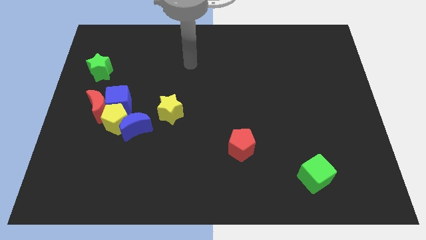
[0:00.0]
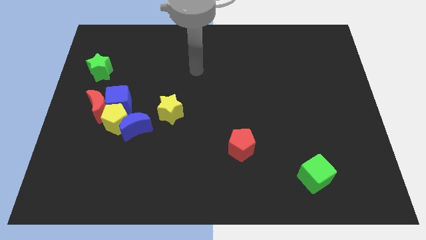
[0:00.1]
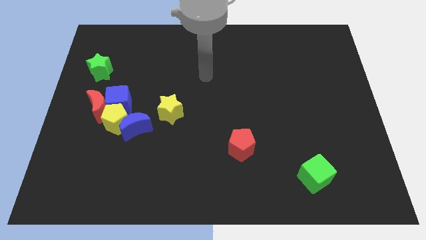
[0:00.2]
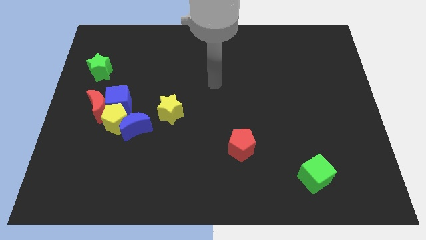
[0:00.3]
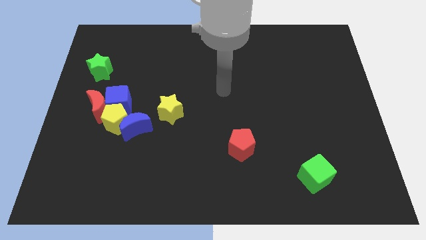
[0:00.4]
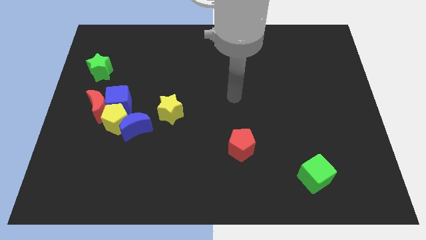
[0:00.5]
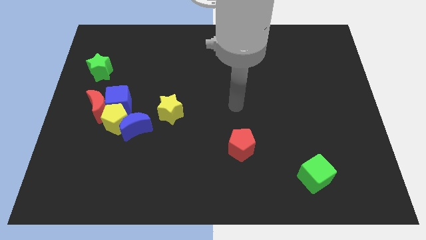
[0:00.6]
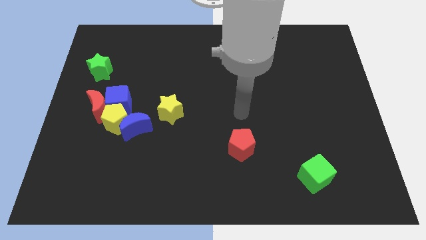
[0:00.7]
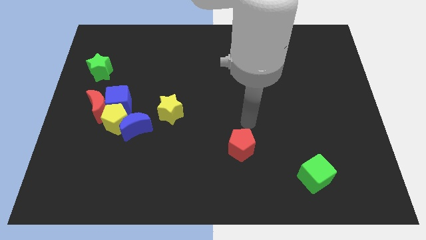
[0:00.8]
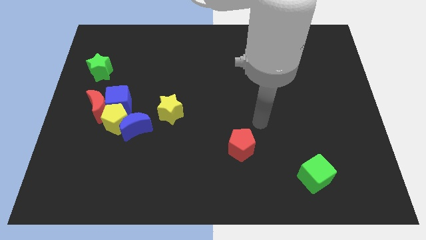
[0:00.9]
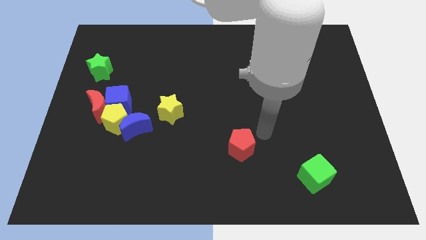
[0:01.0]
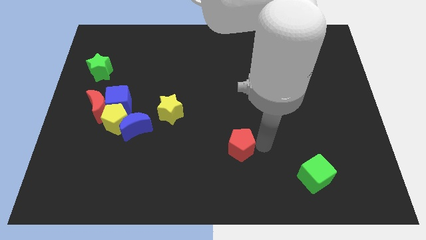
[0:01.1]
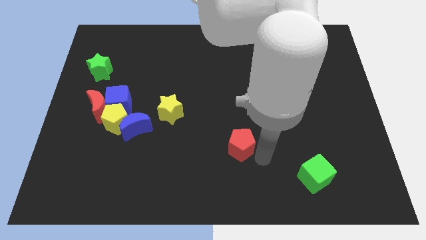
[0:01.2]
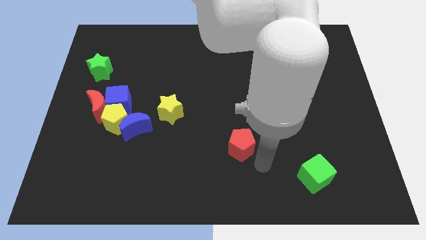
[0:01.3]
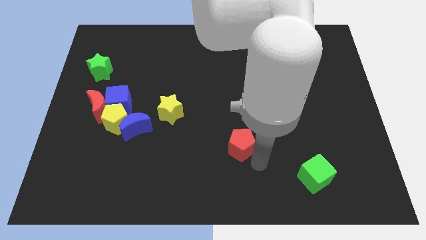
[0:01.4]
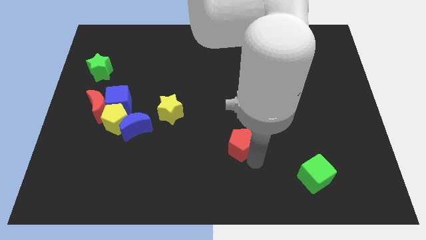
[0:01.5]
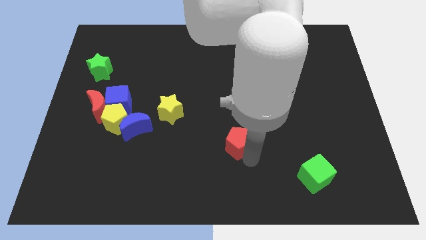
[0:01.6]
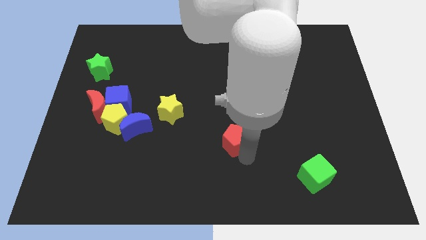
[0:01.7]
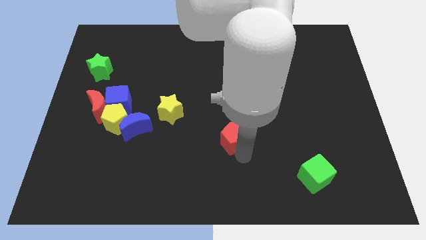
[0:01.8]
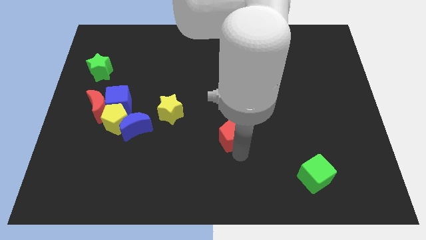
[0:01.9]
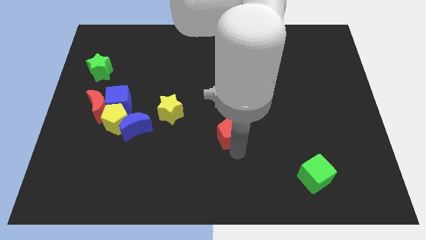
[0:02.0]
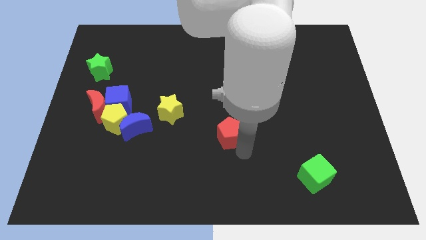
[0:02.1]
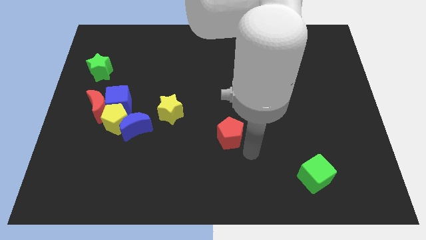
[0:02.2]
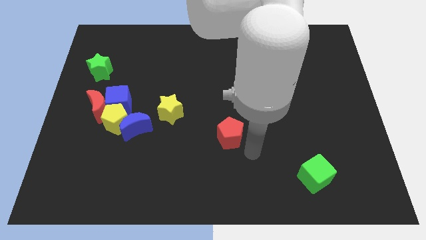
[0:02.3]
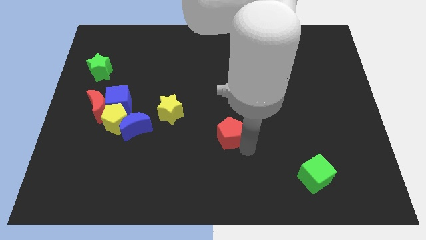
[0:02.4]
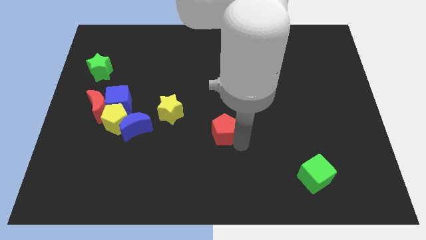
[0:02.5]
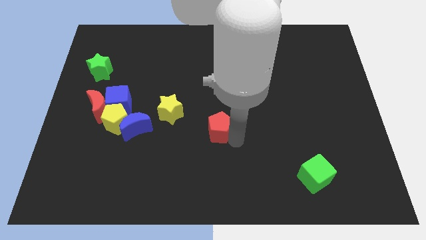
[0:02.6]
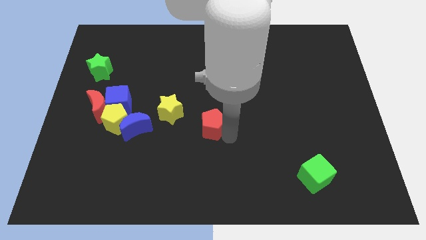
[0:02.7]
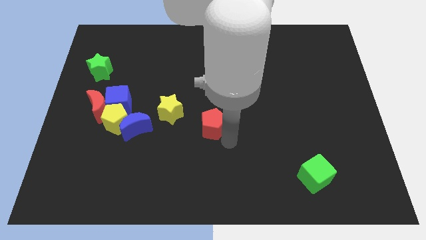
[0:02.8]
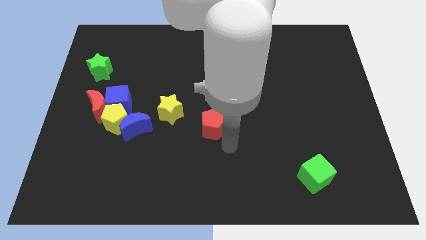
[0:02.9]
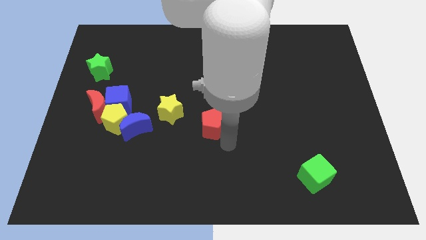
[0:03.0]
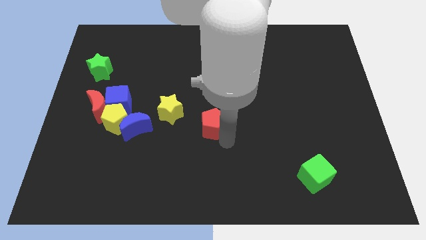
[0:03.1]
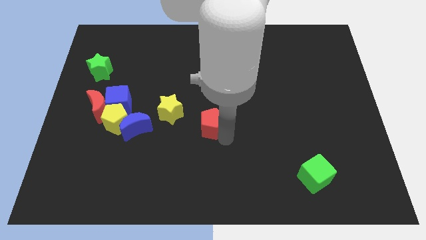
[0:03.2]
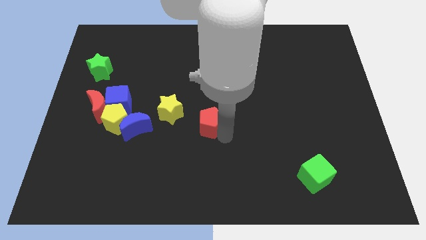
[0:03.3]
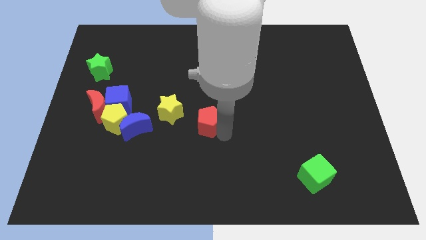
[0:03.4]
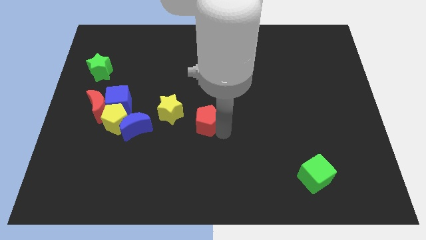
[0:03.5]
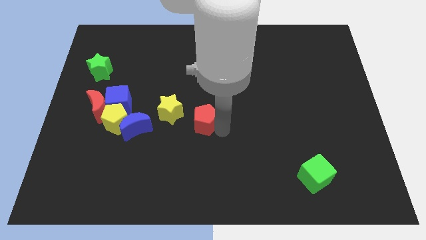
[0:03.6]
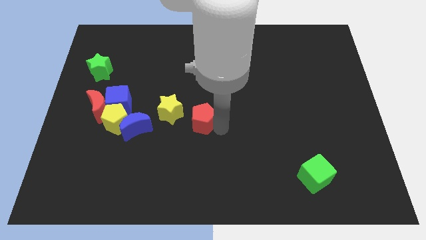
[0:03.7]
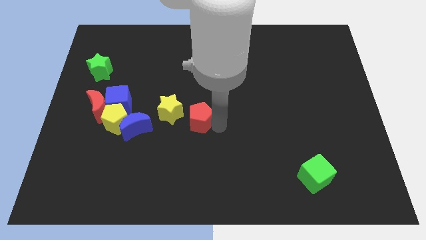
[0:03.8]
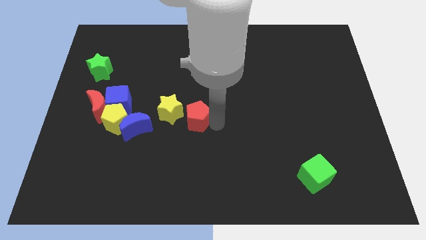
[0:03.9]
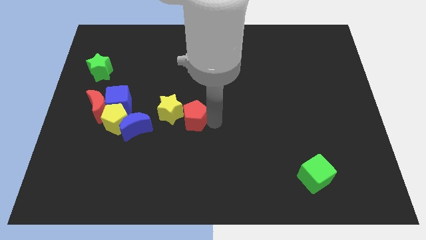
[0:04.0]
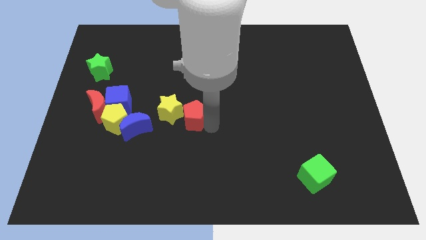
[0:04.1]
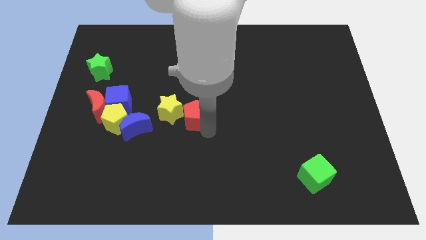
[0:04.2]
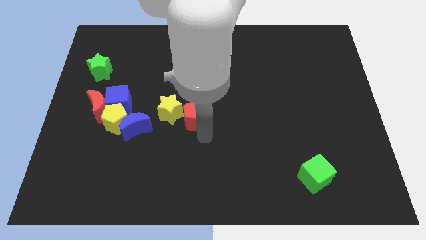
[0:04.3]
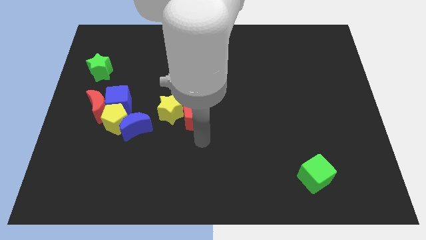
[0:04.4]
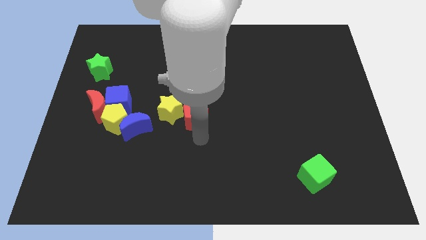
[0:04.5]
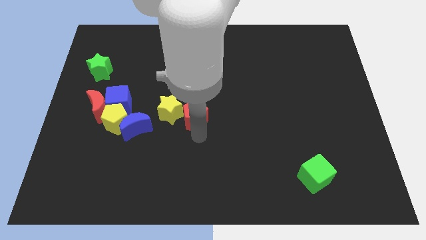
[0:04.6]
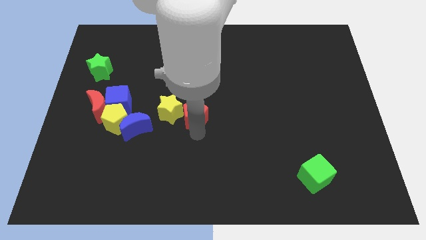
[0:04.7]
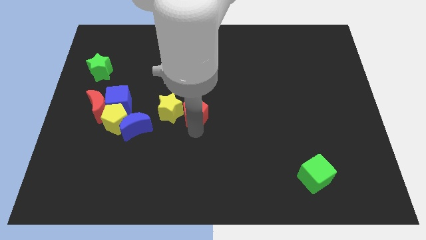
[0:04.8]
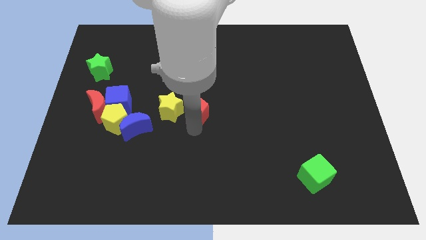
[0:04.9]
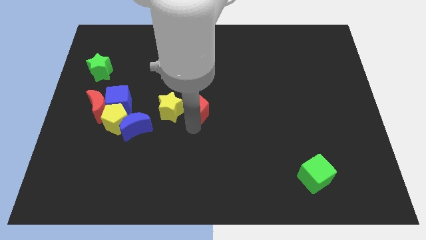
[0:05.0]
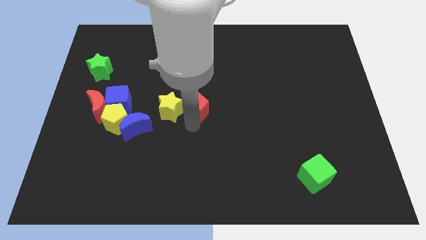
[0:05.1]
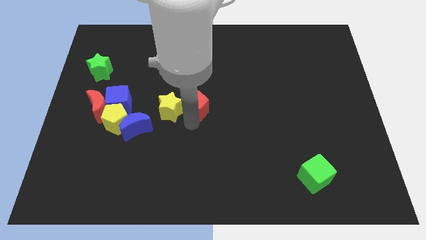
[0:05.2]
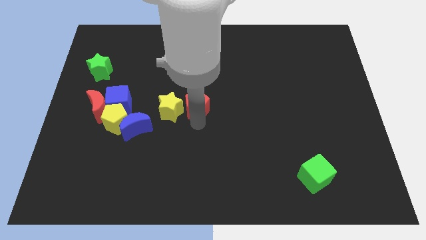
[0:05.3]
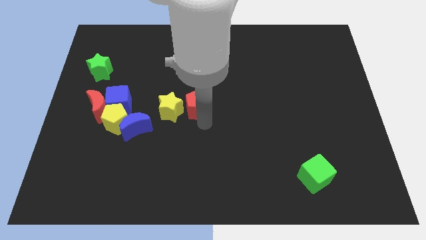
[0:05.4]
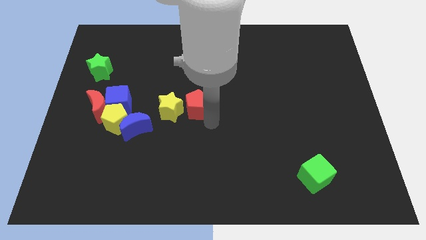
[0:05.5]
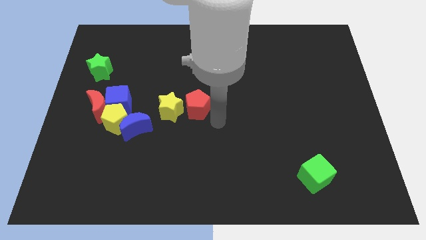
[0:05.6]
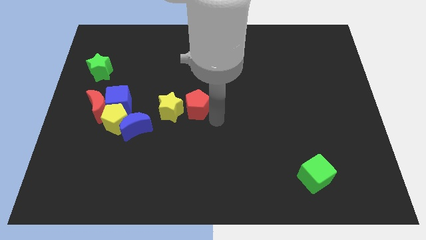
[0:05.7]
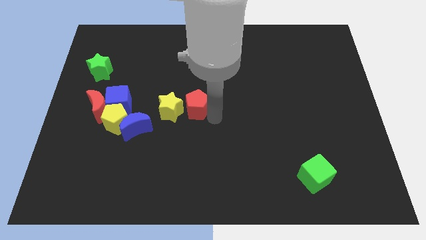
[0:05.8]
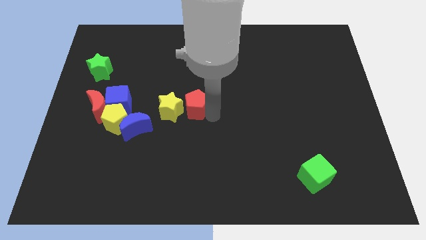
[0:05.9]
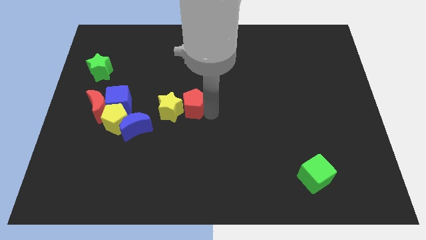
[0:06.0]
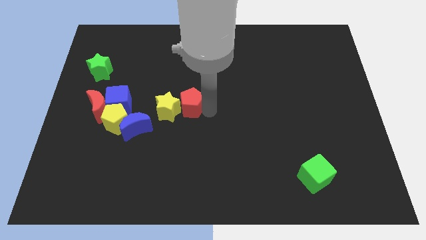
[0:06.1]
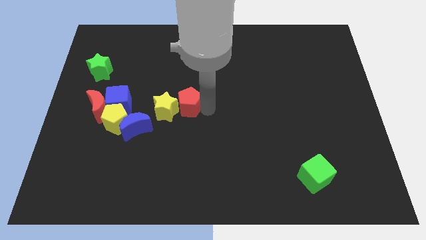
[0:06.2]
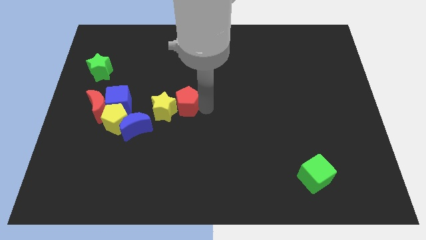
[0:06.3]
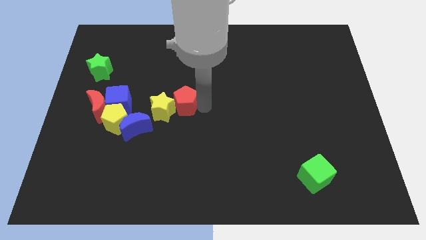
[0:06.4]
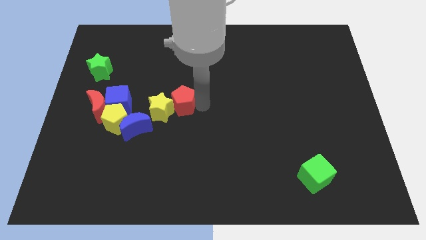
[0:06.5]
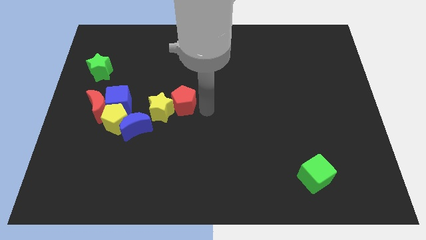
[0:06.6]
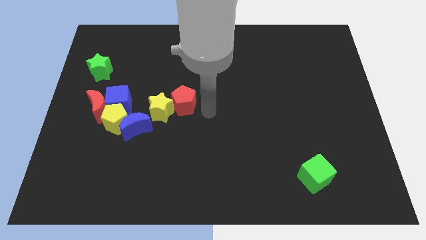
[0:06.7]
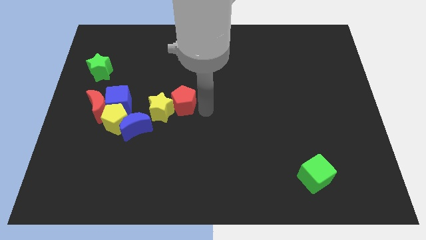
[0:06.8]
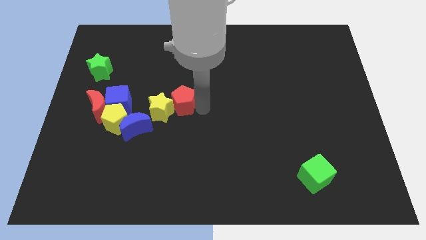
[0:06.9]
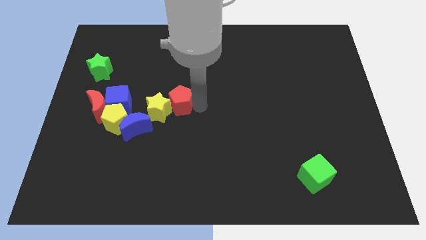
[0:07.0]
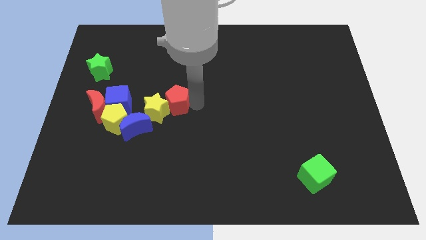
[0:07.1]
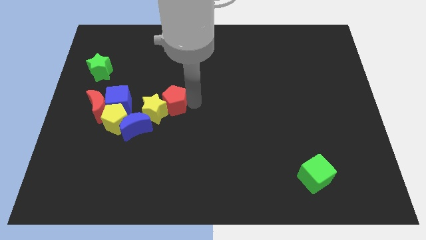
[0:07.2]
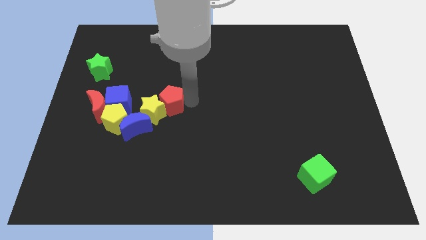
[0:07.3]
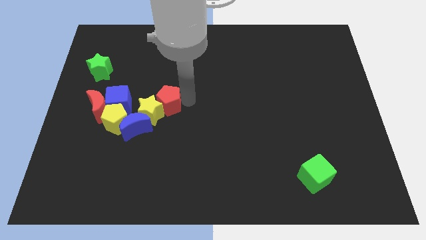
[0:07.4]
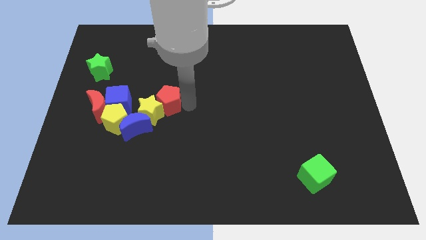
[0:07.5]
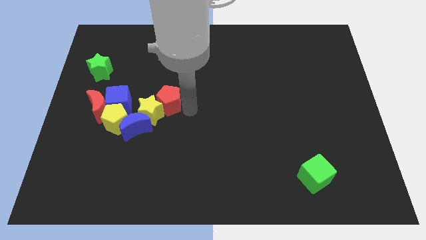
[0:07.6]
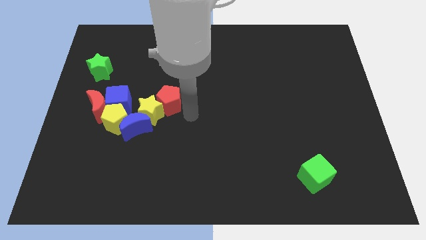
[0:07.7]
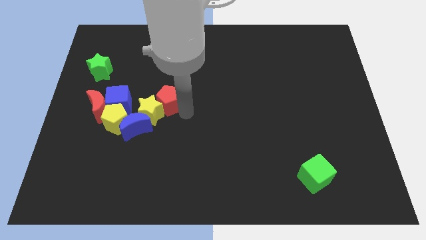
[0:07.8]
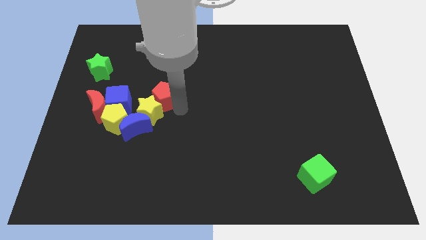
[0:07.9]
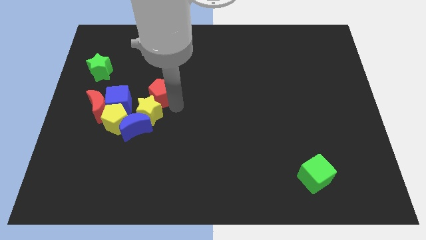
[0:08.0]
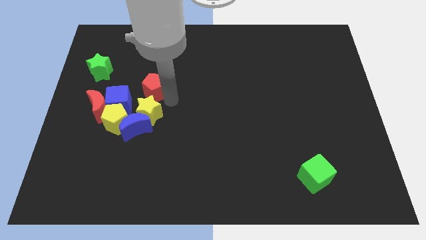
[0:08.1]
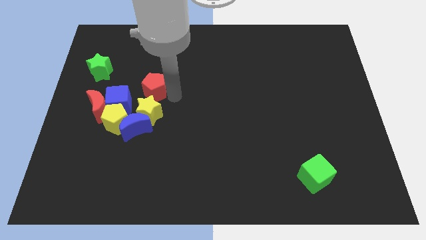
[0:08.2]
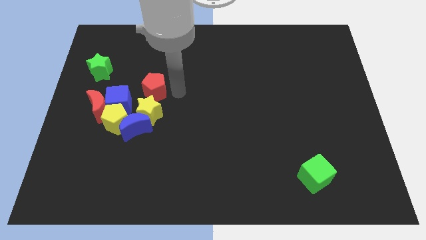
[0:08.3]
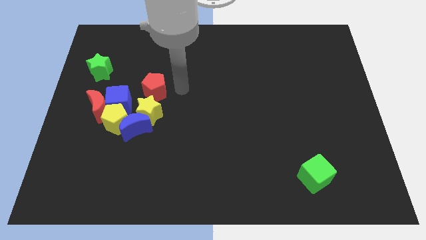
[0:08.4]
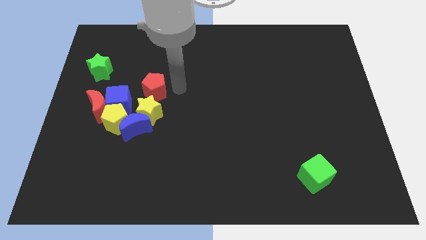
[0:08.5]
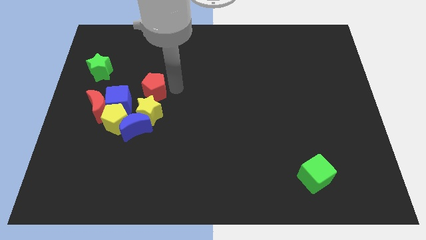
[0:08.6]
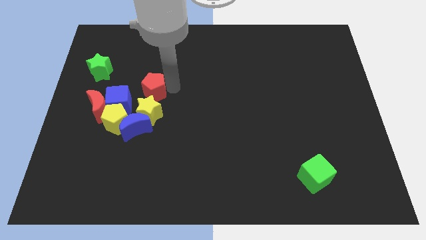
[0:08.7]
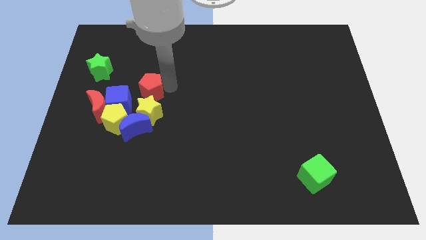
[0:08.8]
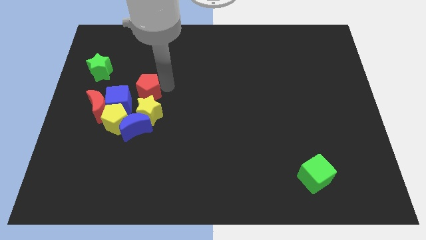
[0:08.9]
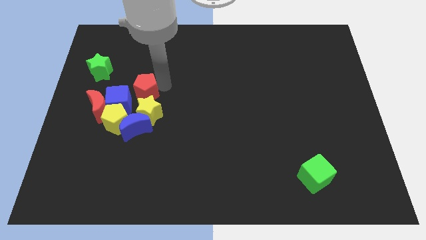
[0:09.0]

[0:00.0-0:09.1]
put the red pentagon to the top right side of the red moon
